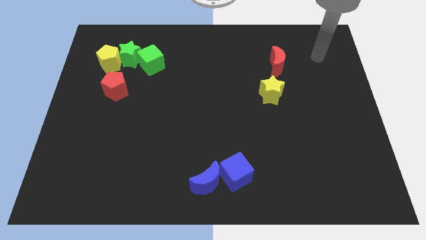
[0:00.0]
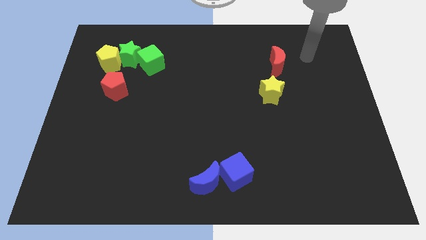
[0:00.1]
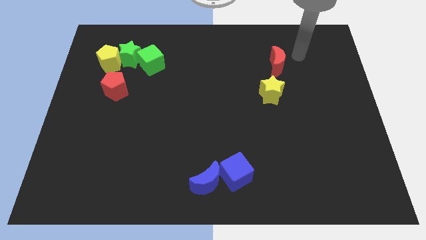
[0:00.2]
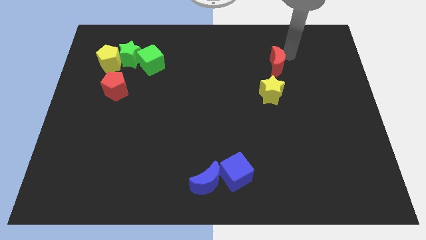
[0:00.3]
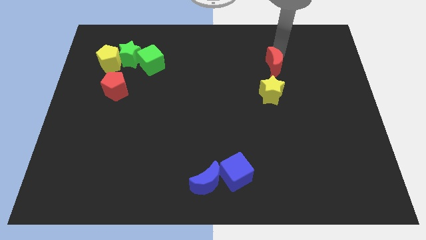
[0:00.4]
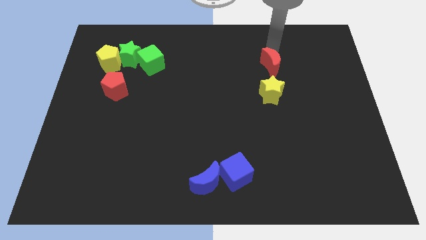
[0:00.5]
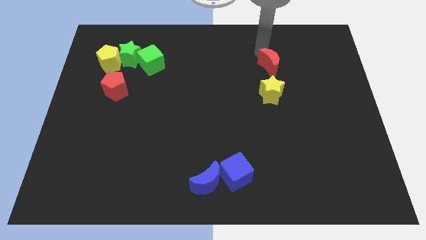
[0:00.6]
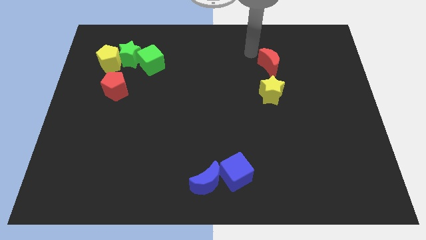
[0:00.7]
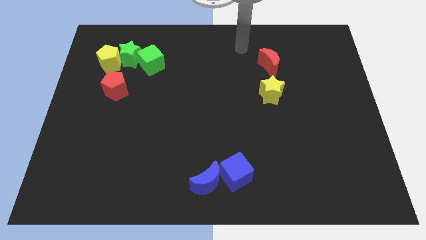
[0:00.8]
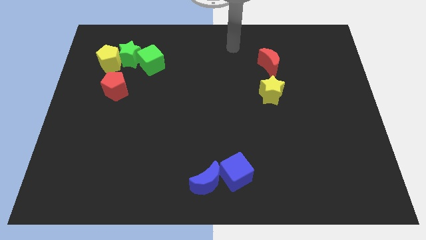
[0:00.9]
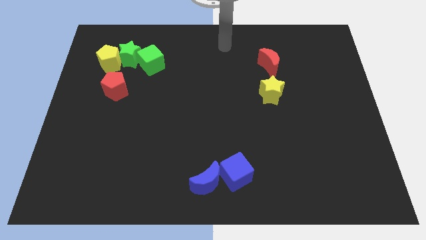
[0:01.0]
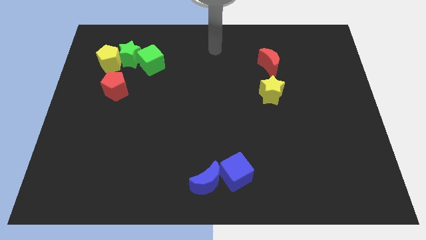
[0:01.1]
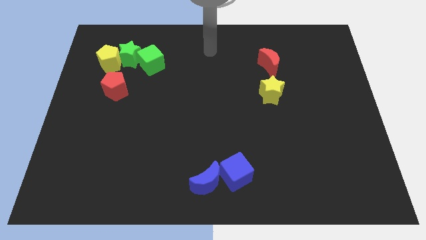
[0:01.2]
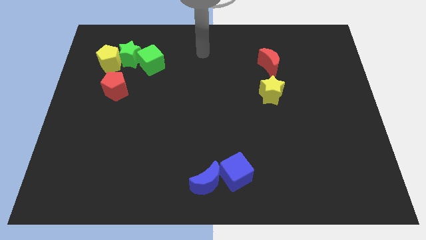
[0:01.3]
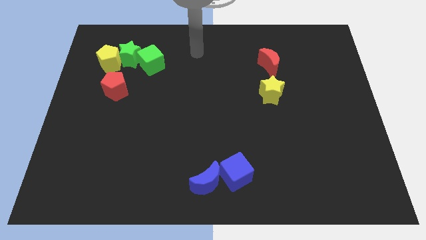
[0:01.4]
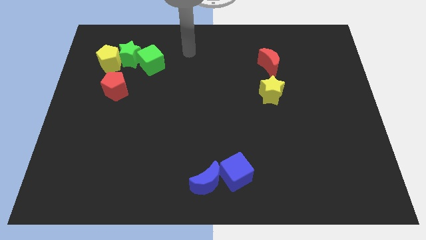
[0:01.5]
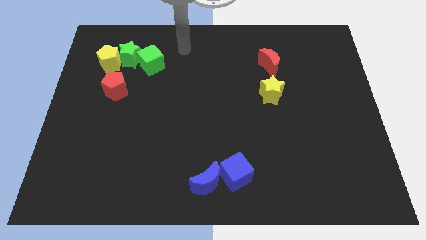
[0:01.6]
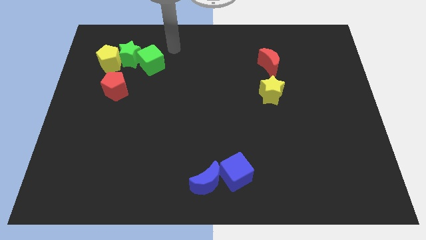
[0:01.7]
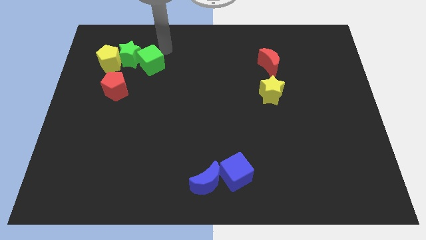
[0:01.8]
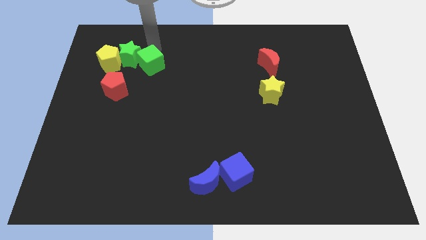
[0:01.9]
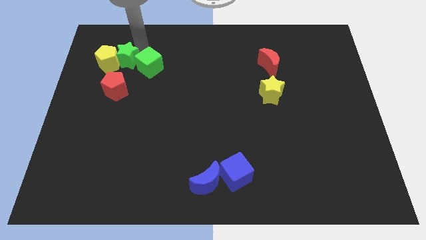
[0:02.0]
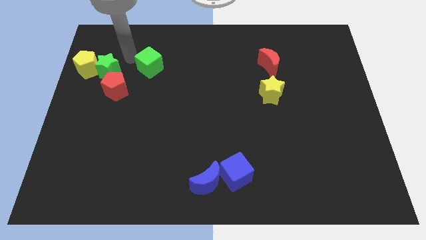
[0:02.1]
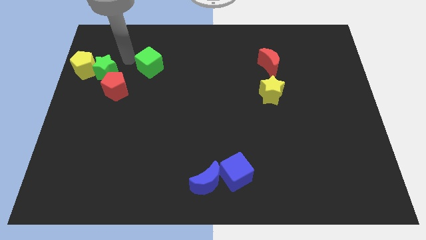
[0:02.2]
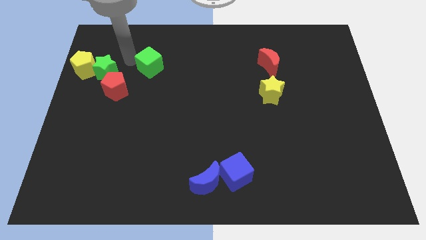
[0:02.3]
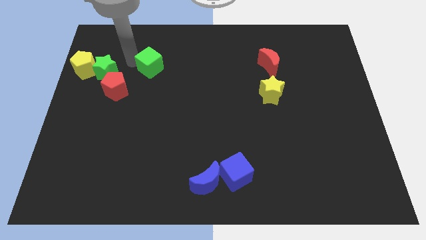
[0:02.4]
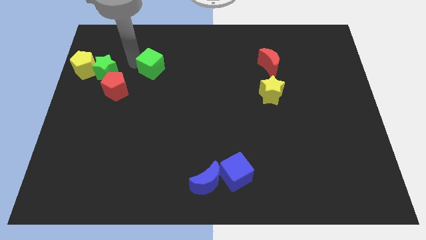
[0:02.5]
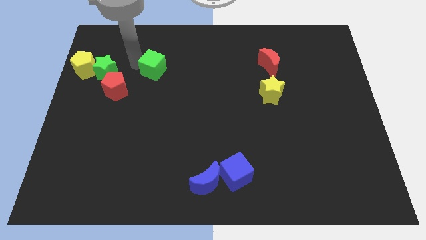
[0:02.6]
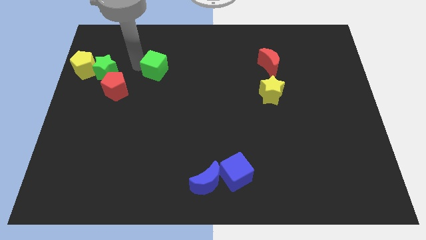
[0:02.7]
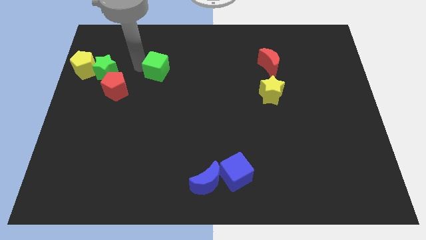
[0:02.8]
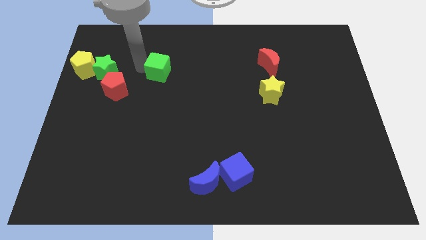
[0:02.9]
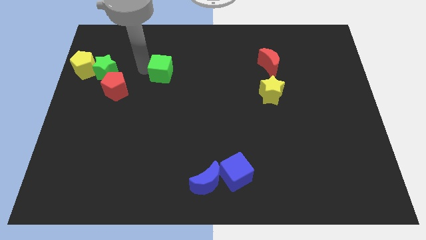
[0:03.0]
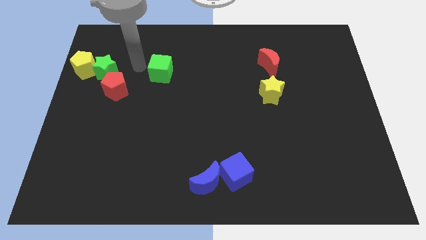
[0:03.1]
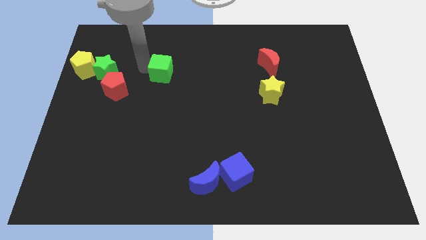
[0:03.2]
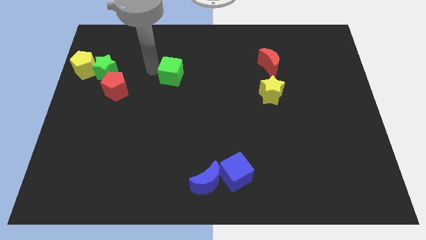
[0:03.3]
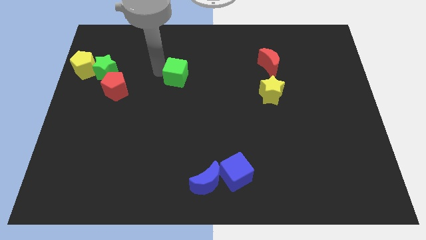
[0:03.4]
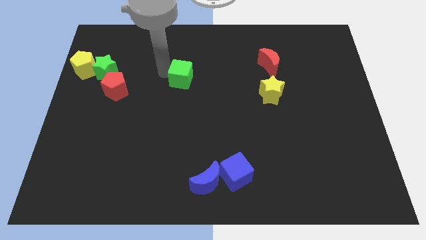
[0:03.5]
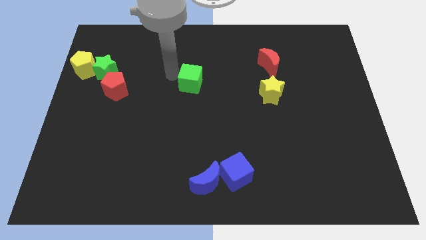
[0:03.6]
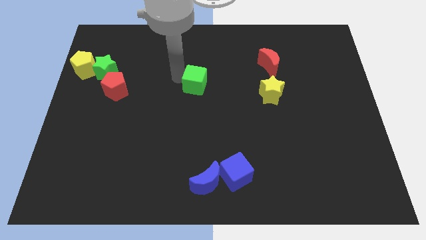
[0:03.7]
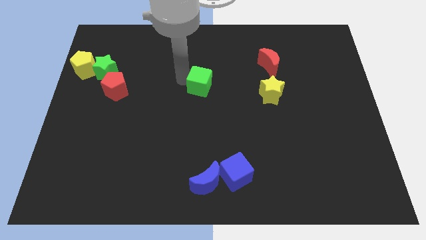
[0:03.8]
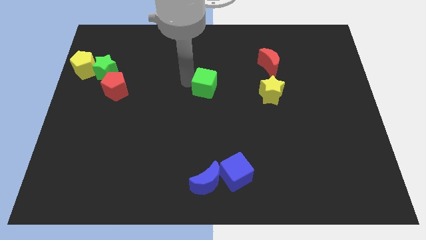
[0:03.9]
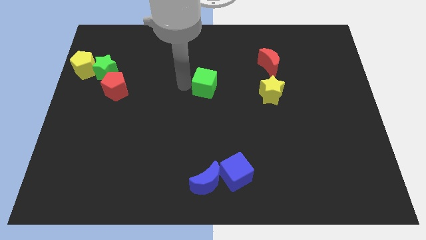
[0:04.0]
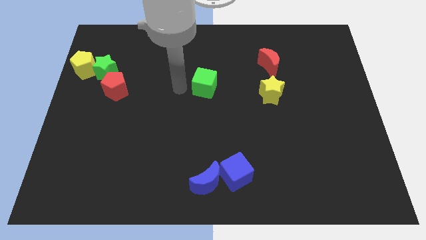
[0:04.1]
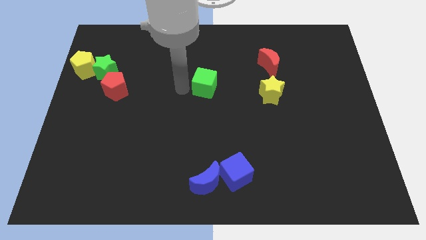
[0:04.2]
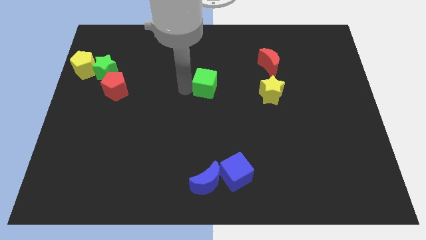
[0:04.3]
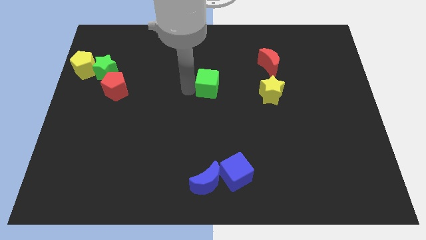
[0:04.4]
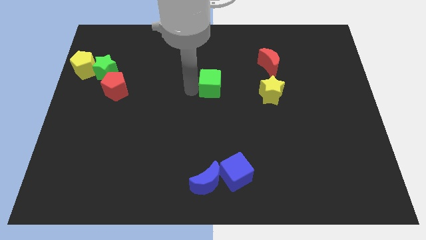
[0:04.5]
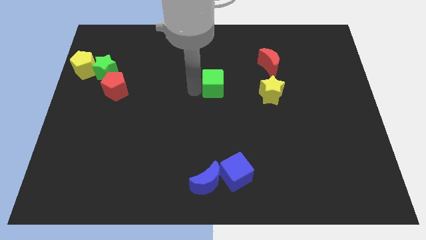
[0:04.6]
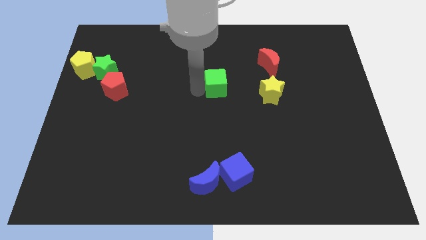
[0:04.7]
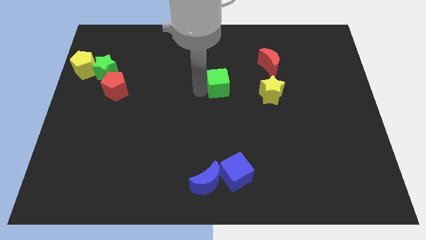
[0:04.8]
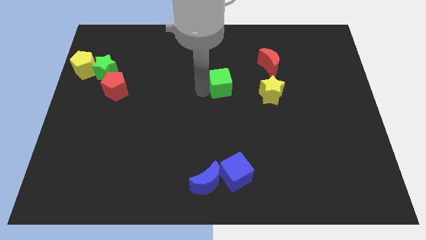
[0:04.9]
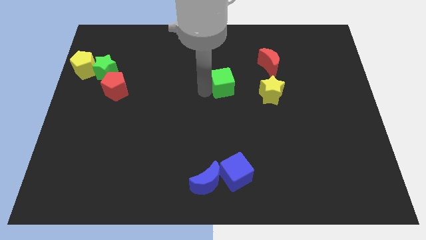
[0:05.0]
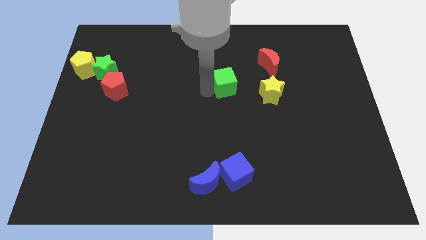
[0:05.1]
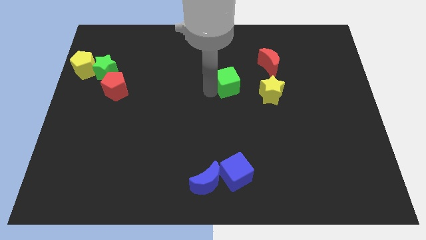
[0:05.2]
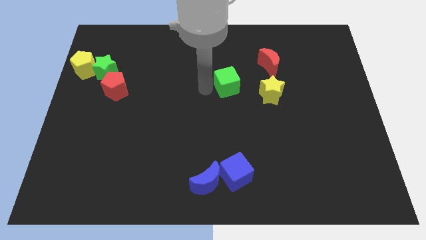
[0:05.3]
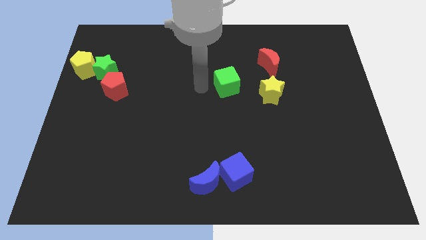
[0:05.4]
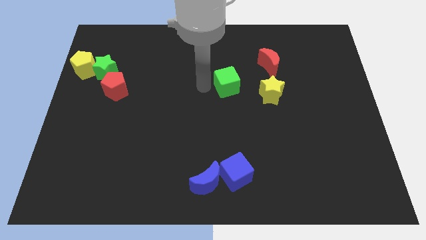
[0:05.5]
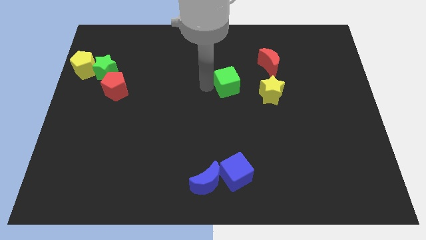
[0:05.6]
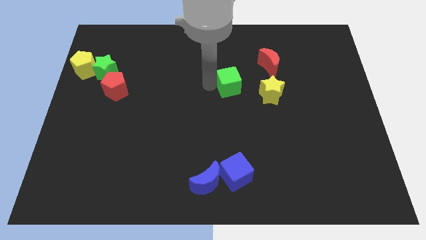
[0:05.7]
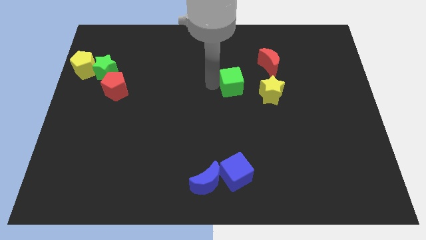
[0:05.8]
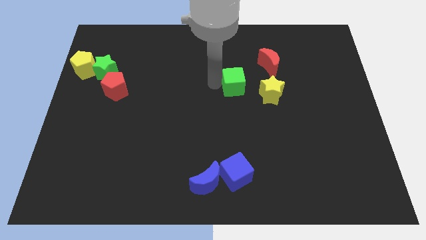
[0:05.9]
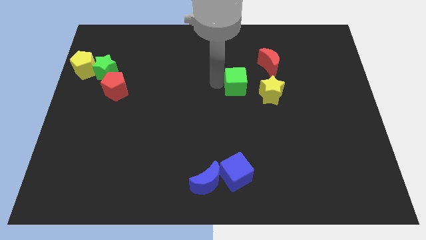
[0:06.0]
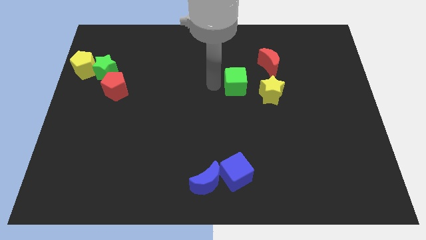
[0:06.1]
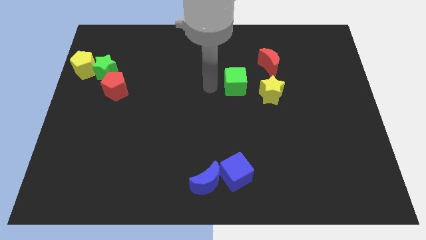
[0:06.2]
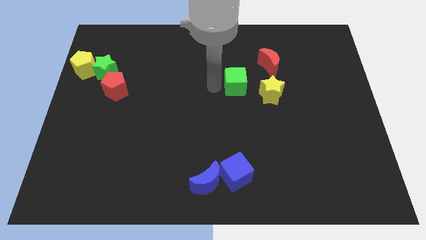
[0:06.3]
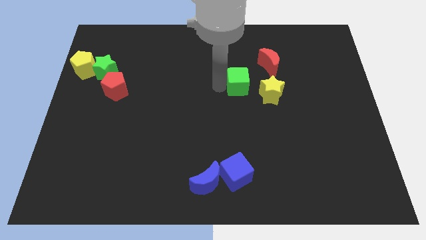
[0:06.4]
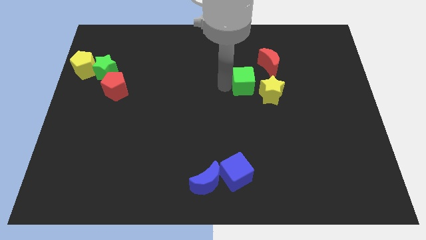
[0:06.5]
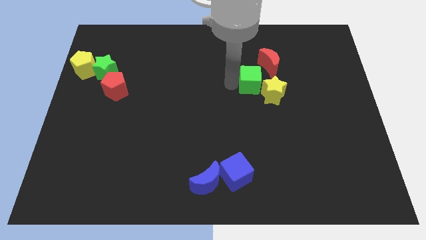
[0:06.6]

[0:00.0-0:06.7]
slide the green cube next to the yellow star

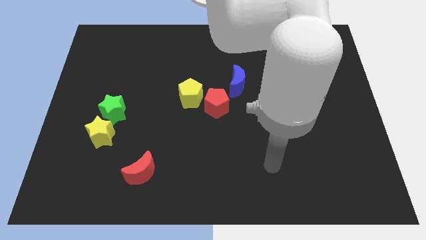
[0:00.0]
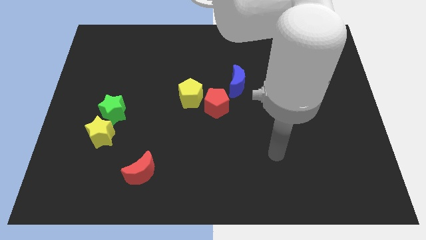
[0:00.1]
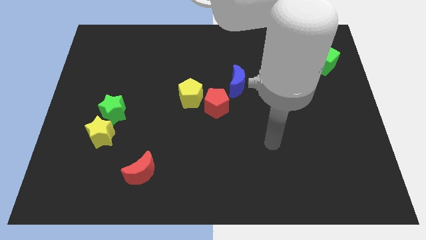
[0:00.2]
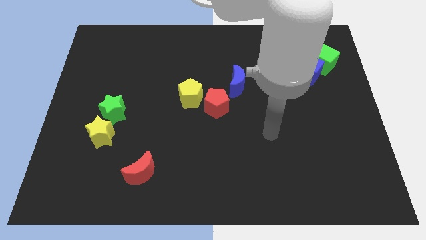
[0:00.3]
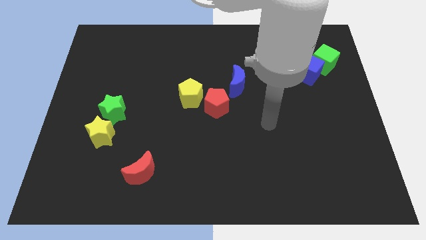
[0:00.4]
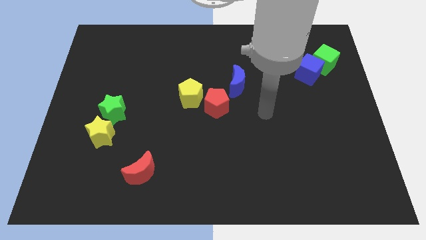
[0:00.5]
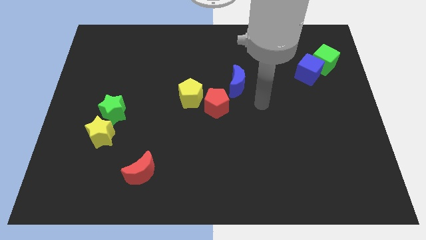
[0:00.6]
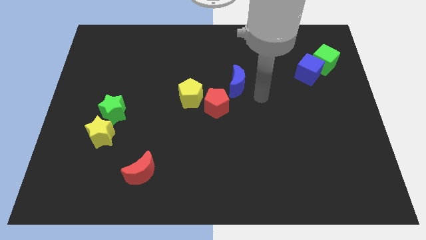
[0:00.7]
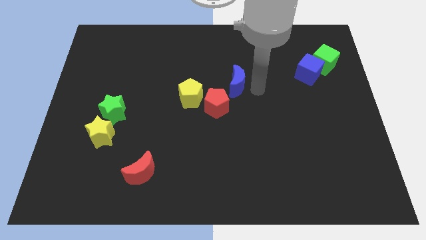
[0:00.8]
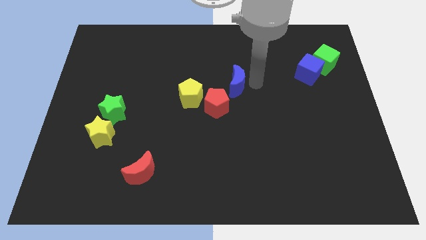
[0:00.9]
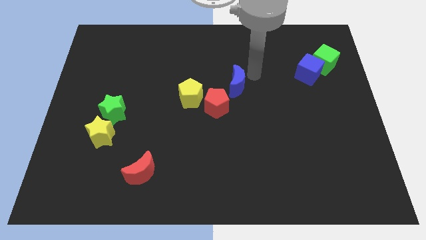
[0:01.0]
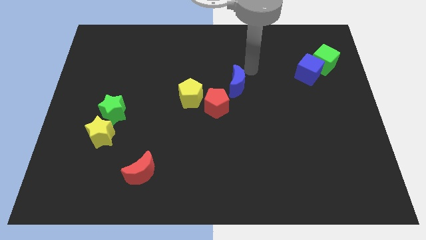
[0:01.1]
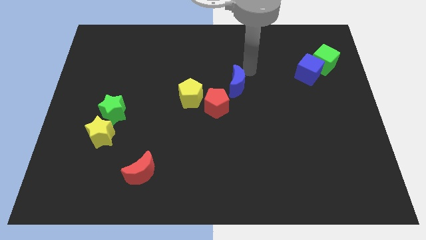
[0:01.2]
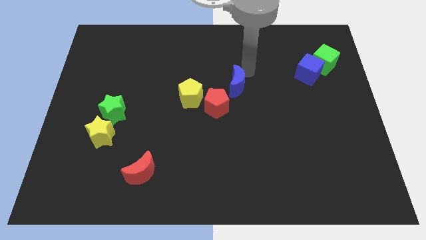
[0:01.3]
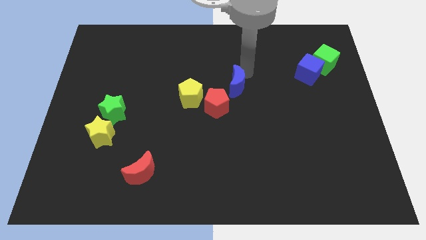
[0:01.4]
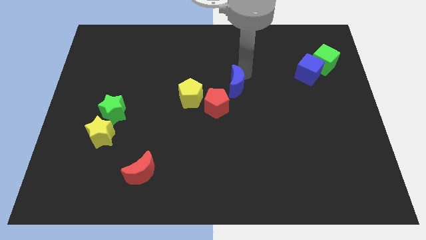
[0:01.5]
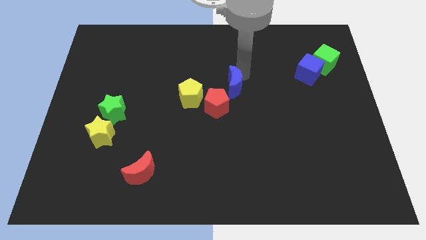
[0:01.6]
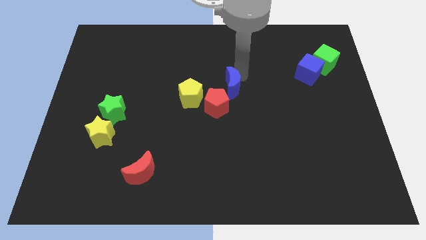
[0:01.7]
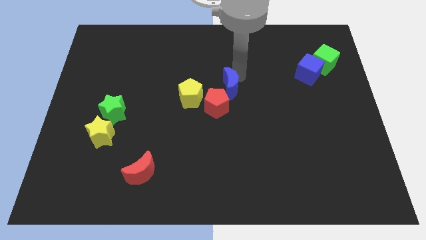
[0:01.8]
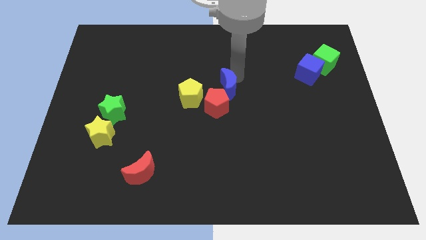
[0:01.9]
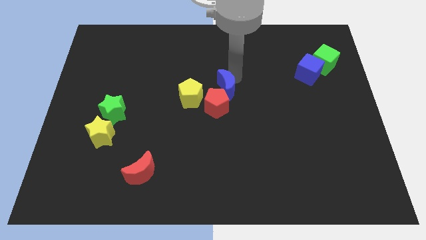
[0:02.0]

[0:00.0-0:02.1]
move the blue moon next to the red pentagon
